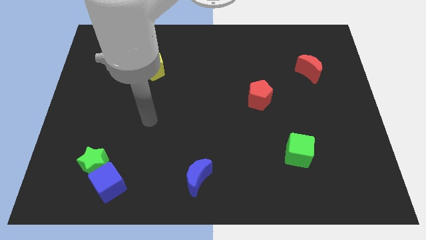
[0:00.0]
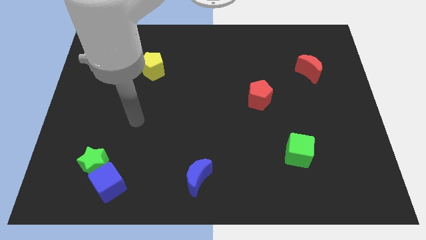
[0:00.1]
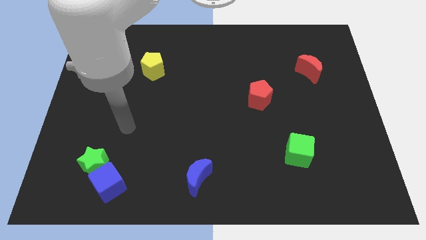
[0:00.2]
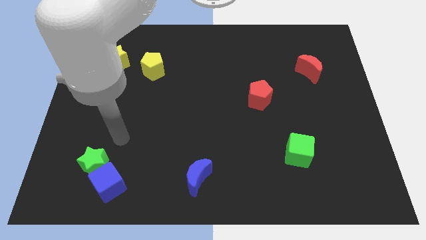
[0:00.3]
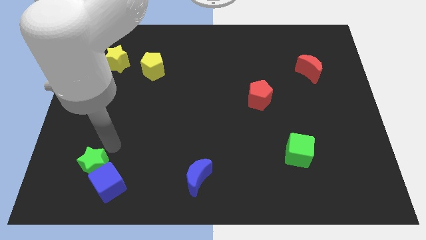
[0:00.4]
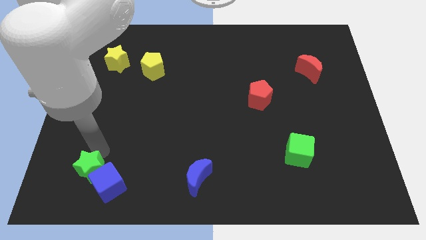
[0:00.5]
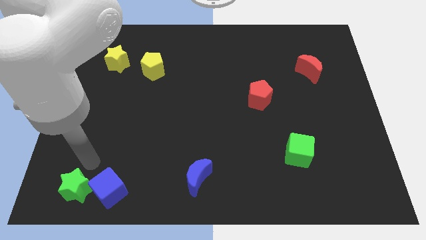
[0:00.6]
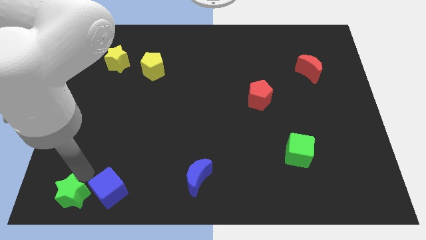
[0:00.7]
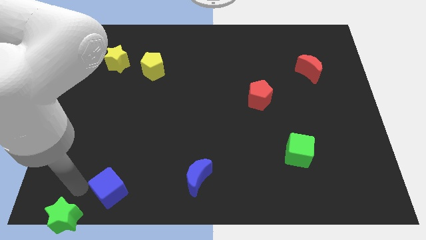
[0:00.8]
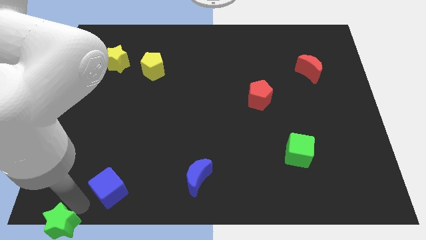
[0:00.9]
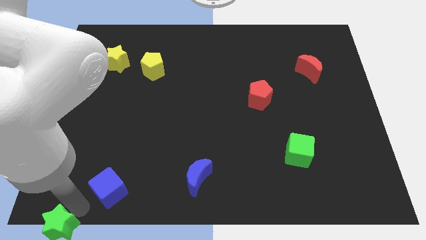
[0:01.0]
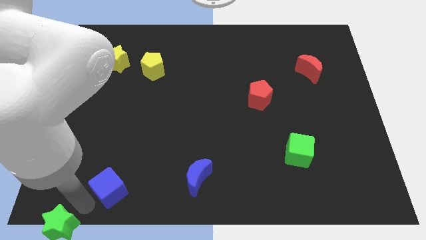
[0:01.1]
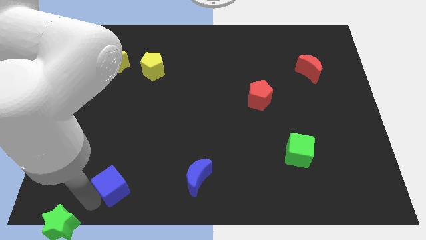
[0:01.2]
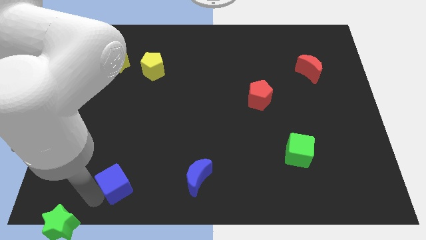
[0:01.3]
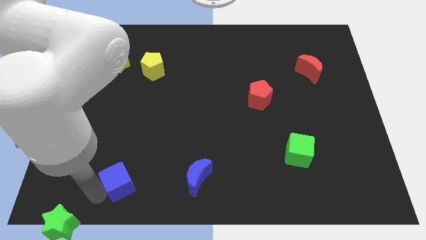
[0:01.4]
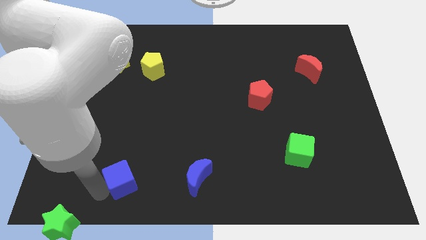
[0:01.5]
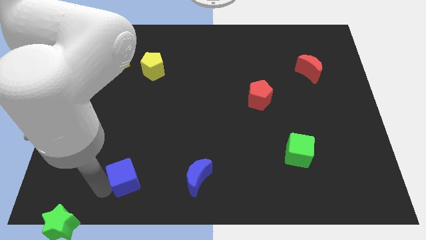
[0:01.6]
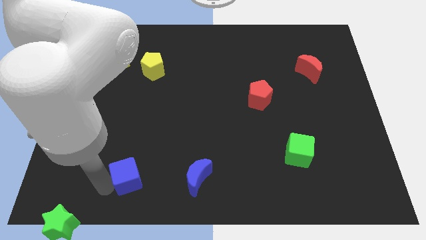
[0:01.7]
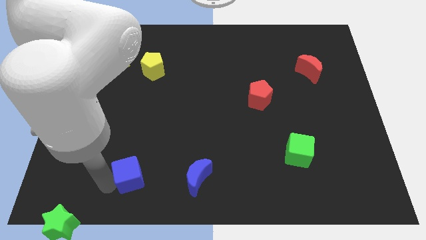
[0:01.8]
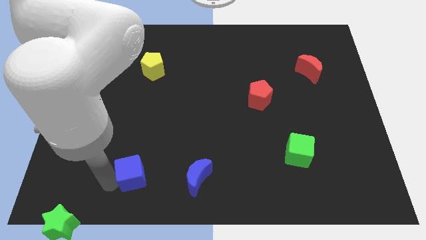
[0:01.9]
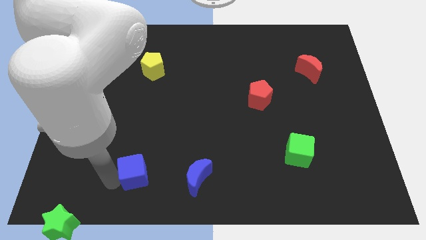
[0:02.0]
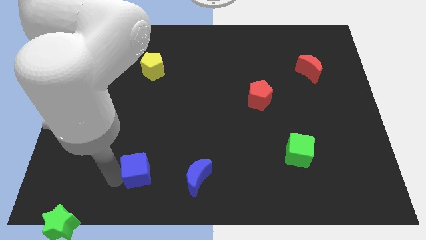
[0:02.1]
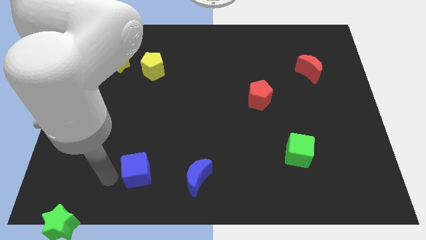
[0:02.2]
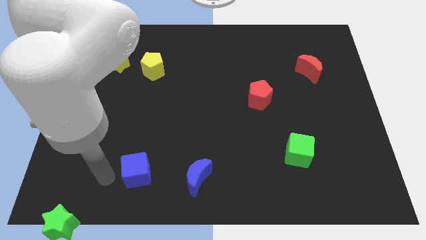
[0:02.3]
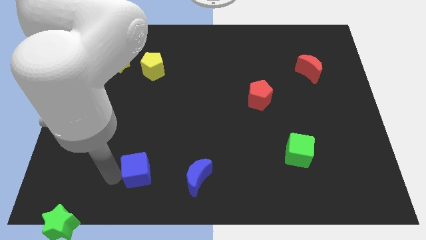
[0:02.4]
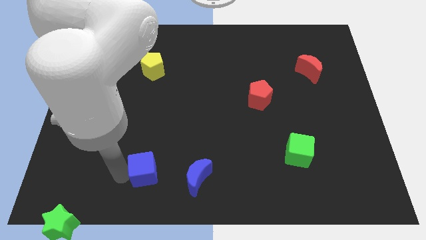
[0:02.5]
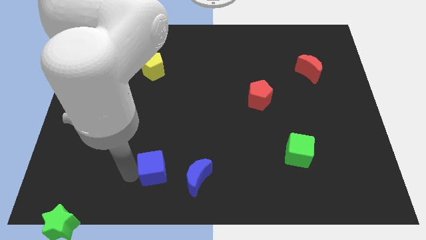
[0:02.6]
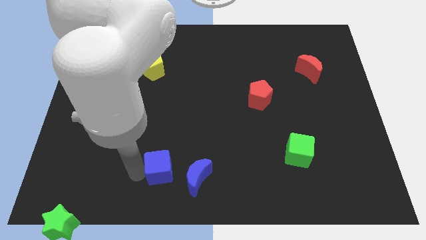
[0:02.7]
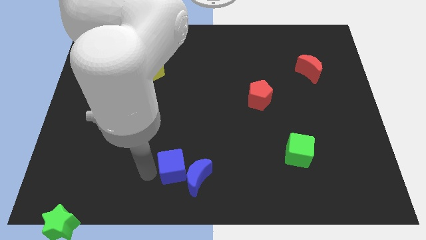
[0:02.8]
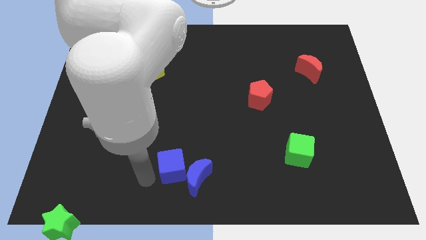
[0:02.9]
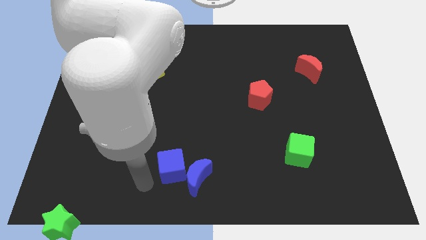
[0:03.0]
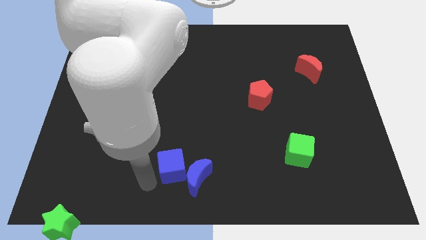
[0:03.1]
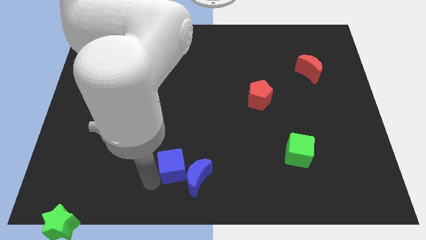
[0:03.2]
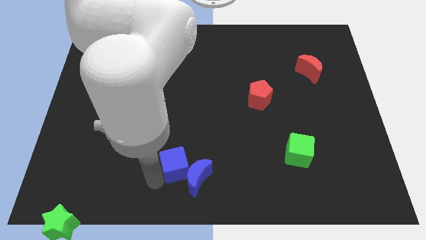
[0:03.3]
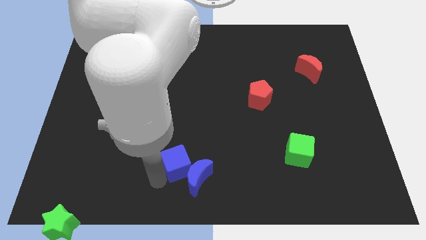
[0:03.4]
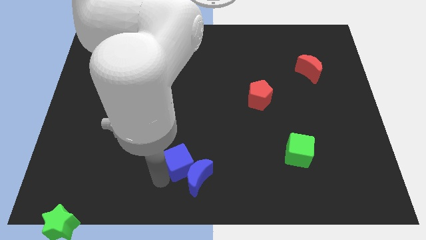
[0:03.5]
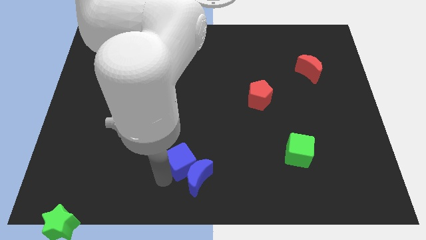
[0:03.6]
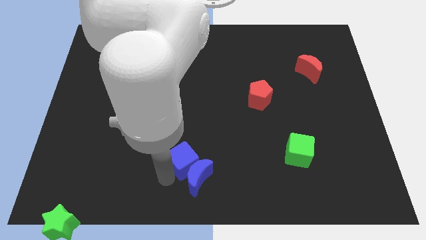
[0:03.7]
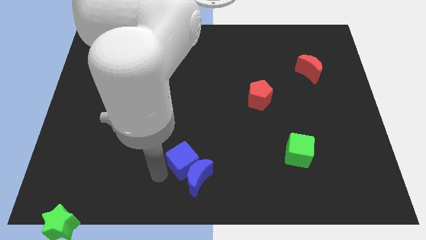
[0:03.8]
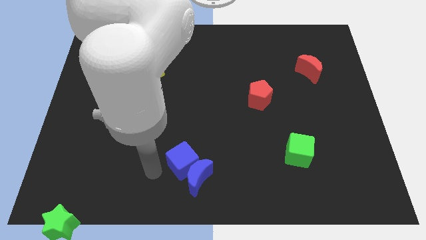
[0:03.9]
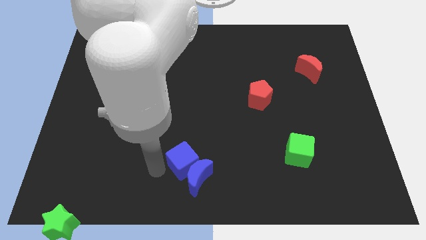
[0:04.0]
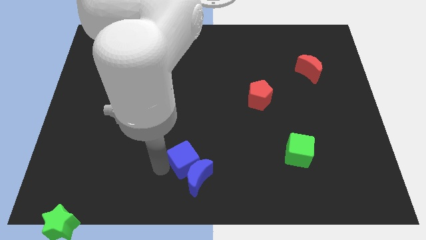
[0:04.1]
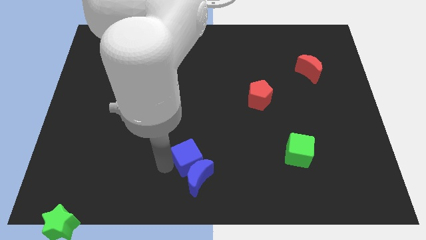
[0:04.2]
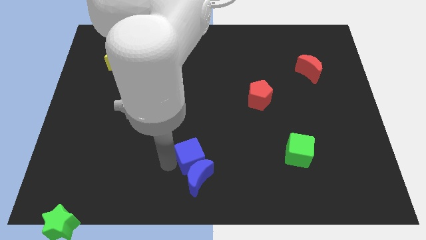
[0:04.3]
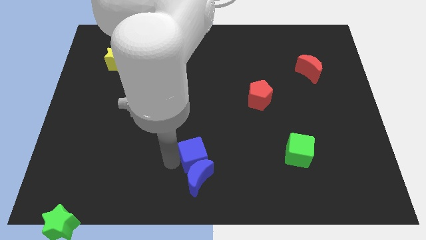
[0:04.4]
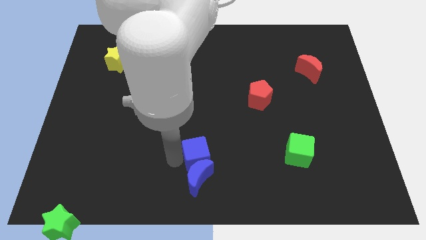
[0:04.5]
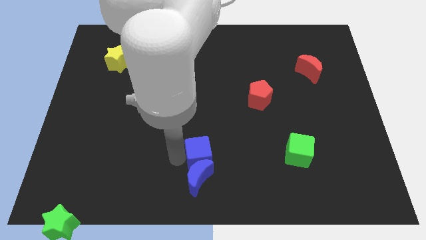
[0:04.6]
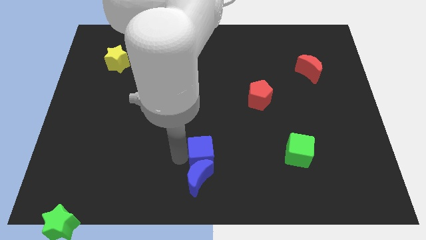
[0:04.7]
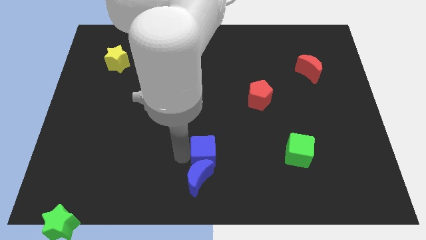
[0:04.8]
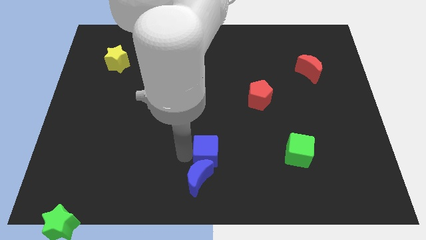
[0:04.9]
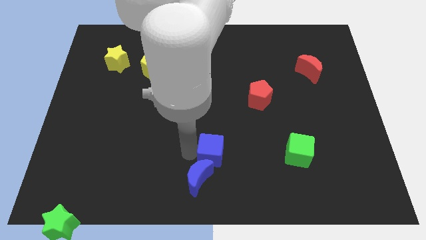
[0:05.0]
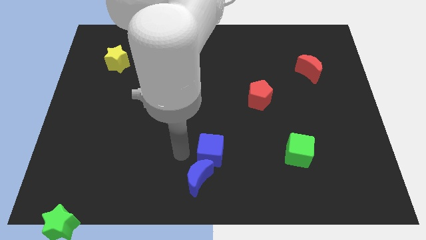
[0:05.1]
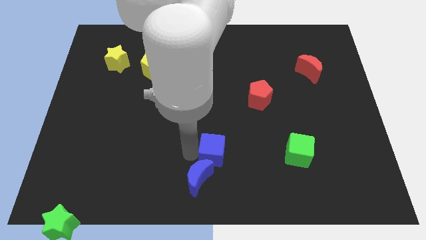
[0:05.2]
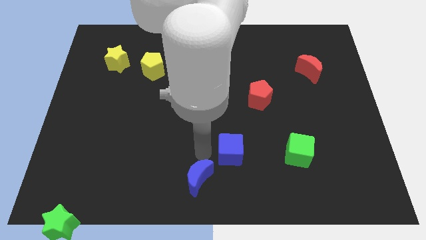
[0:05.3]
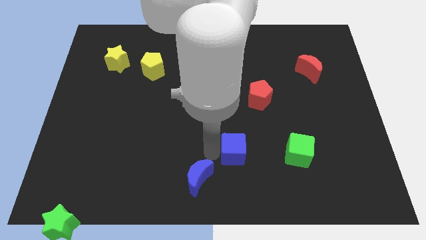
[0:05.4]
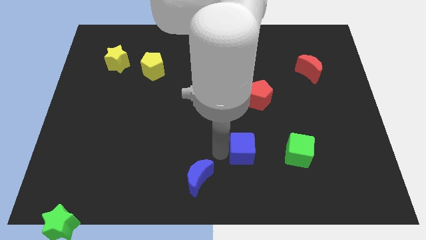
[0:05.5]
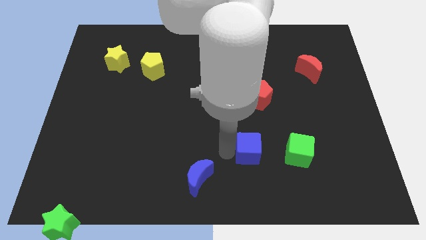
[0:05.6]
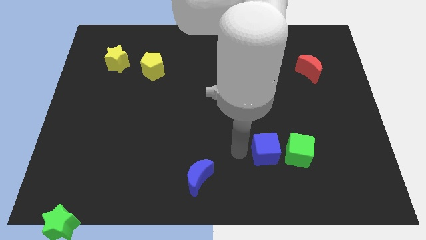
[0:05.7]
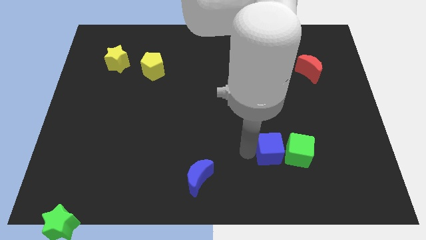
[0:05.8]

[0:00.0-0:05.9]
slide the blue cube close to the green cube

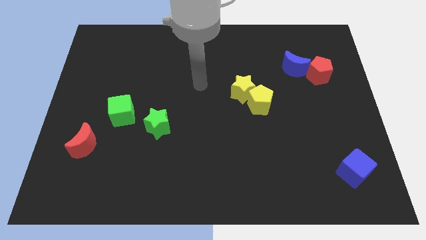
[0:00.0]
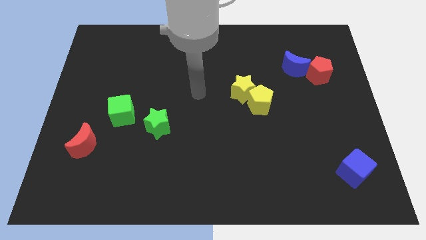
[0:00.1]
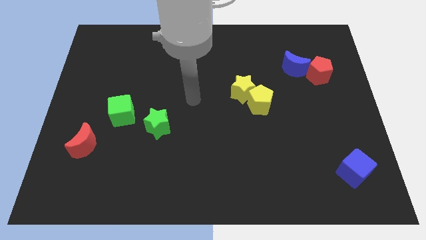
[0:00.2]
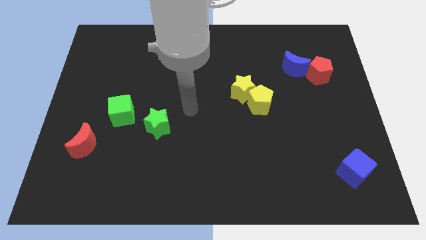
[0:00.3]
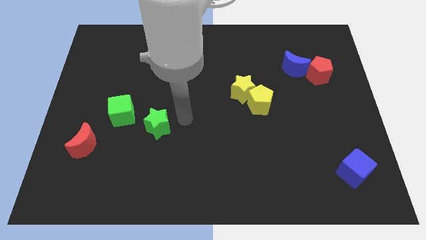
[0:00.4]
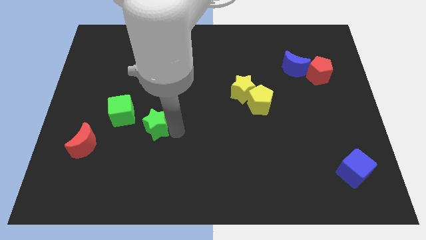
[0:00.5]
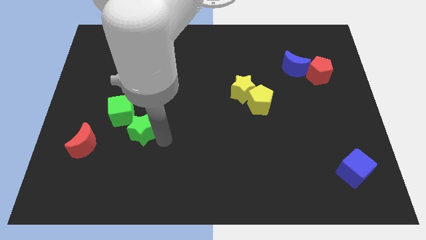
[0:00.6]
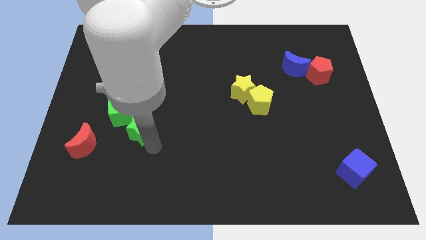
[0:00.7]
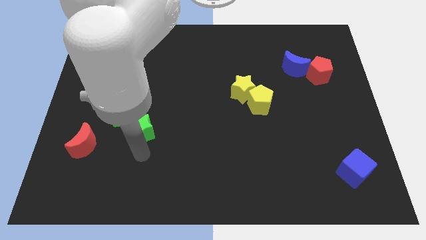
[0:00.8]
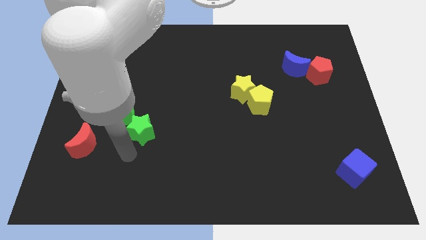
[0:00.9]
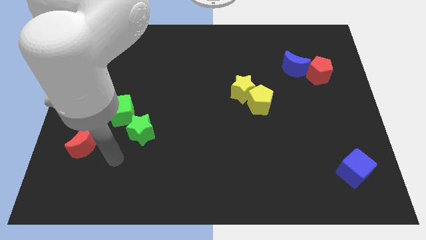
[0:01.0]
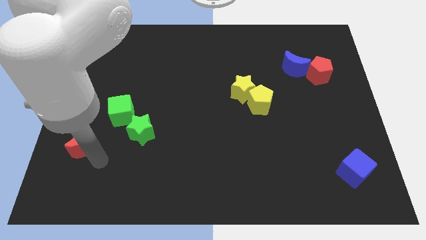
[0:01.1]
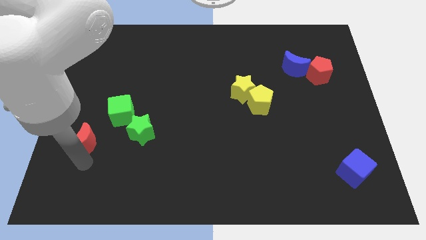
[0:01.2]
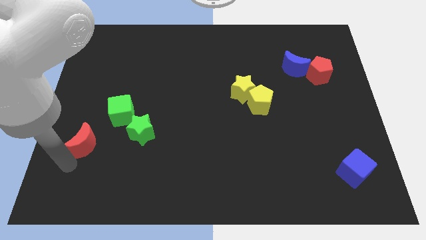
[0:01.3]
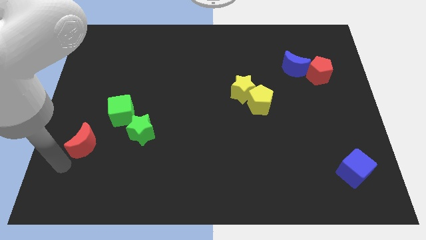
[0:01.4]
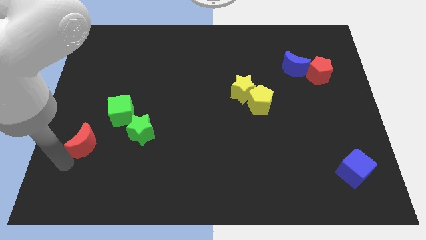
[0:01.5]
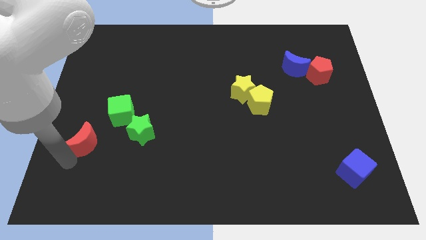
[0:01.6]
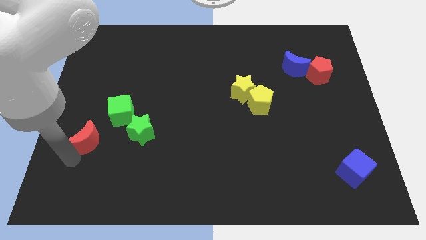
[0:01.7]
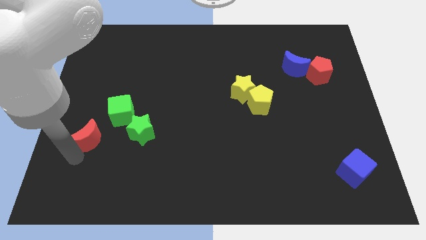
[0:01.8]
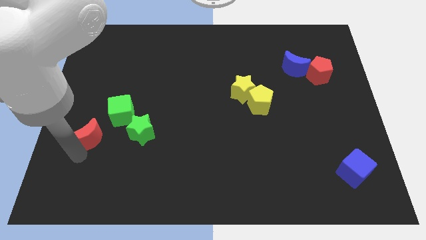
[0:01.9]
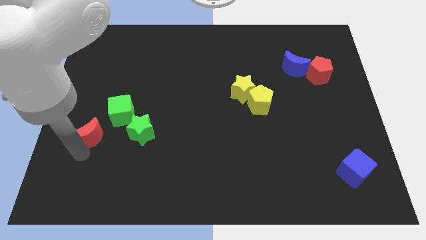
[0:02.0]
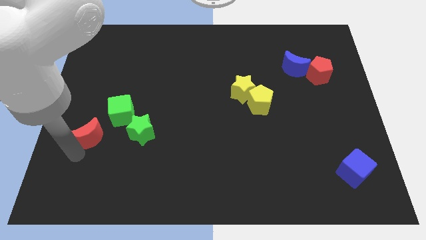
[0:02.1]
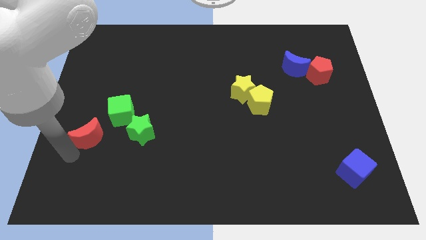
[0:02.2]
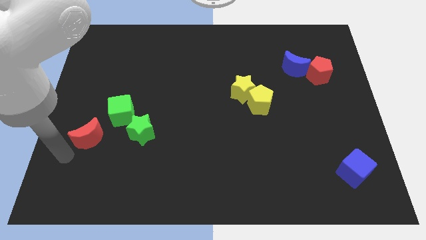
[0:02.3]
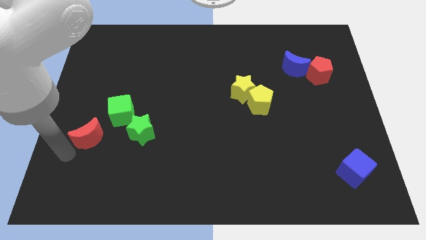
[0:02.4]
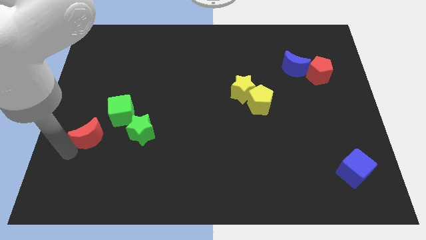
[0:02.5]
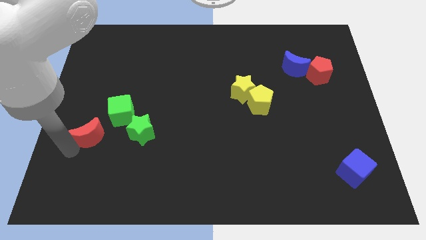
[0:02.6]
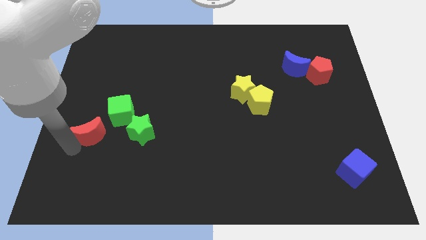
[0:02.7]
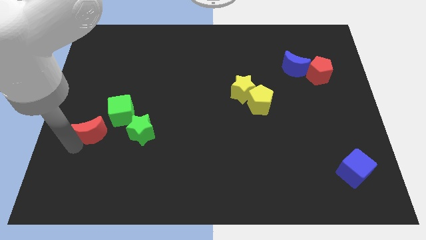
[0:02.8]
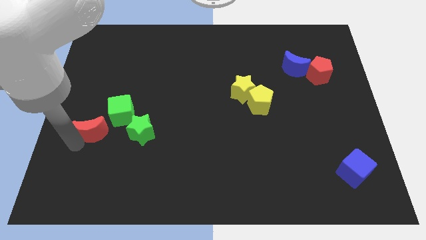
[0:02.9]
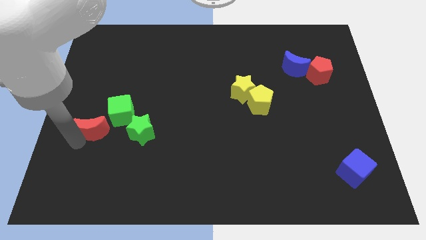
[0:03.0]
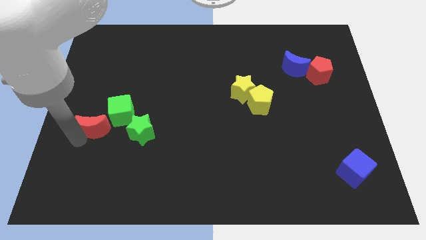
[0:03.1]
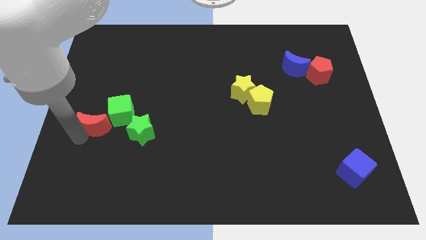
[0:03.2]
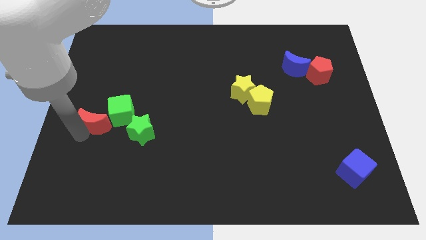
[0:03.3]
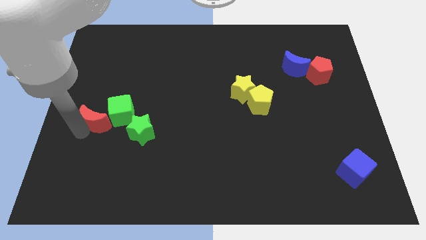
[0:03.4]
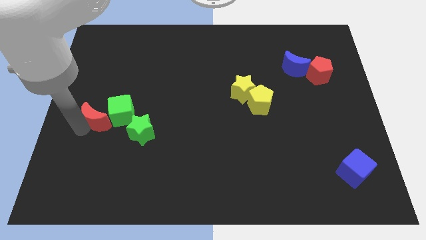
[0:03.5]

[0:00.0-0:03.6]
move the red moon towards the green cube
